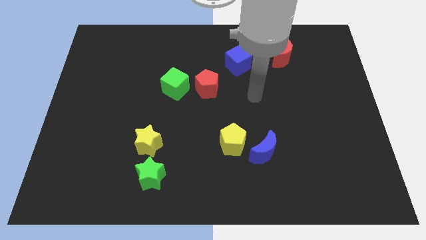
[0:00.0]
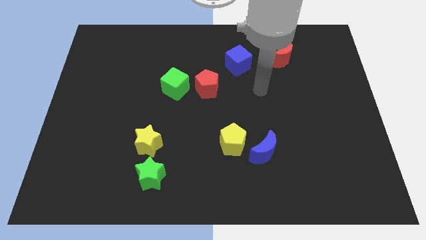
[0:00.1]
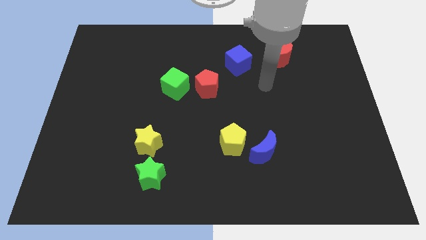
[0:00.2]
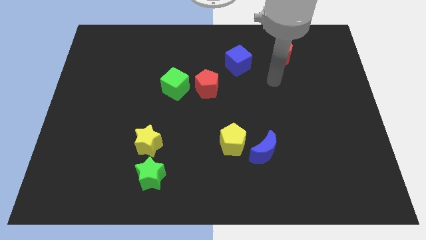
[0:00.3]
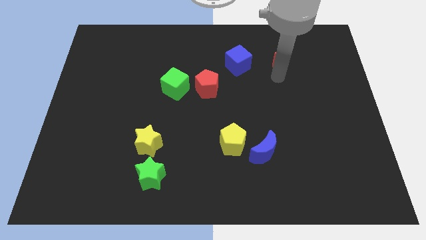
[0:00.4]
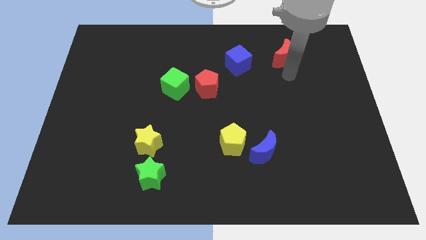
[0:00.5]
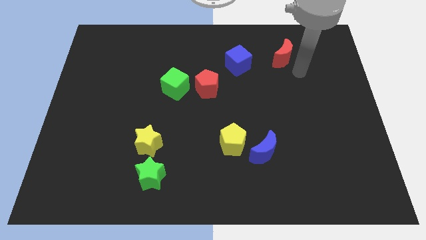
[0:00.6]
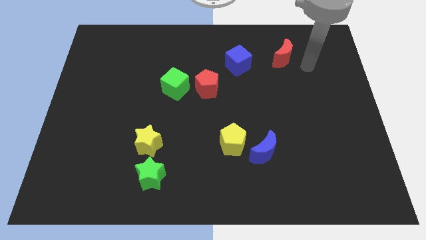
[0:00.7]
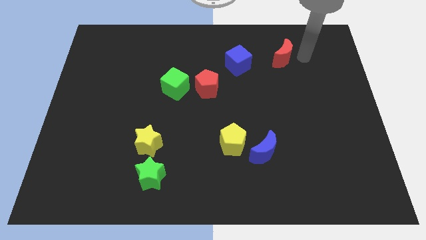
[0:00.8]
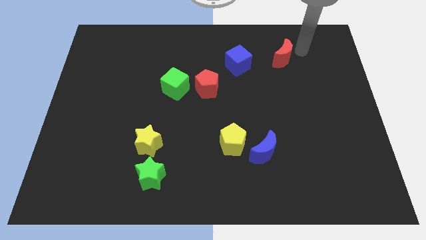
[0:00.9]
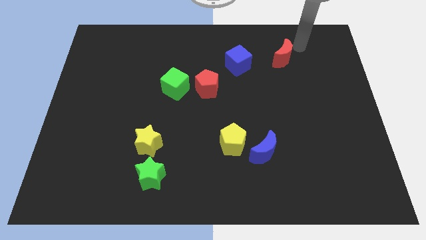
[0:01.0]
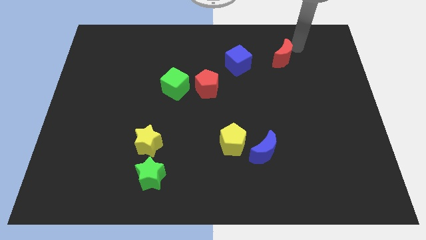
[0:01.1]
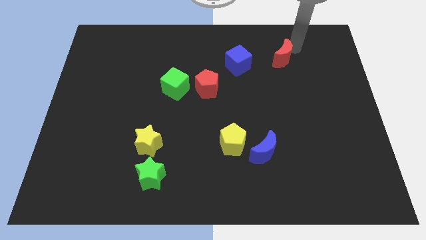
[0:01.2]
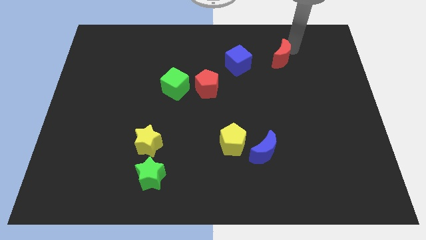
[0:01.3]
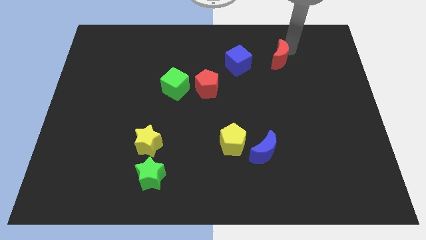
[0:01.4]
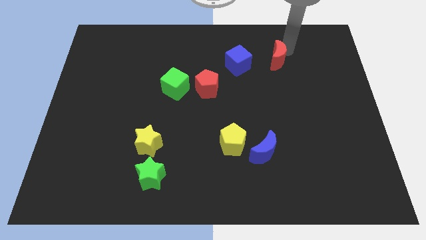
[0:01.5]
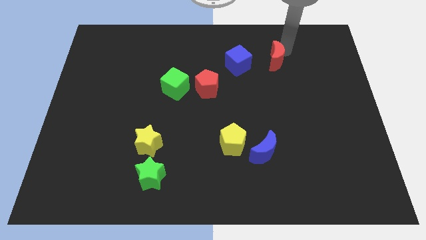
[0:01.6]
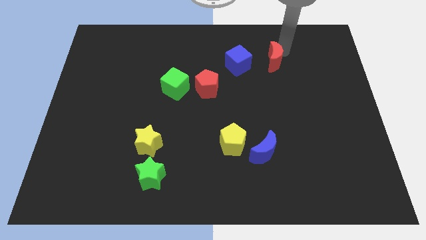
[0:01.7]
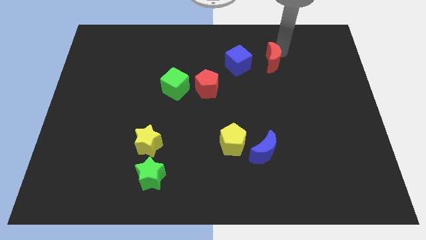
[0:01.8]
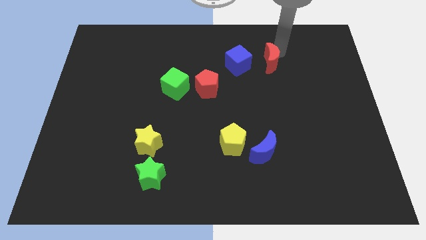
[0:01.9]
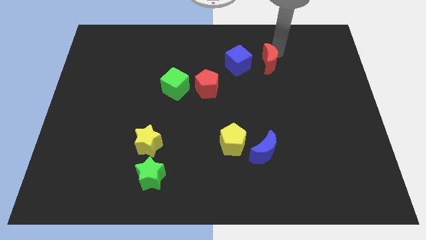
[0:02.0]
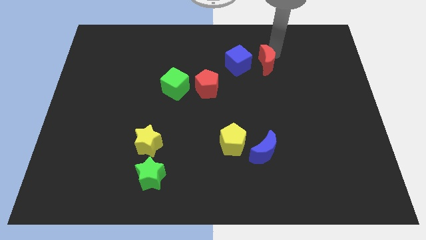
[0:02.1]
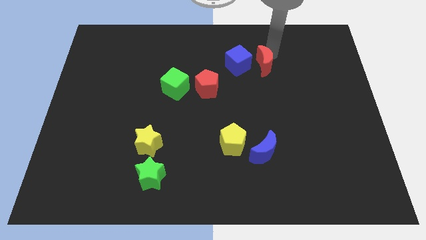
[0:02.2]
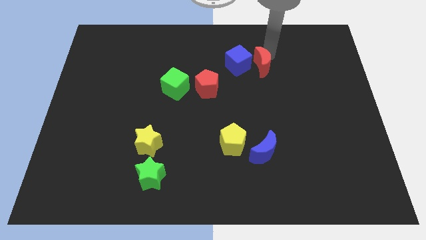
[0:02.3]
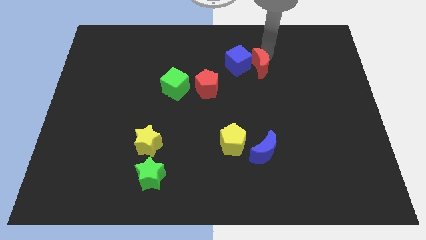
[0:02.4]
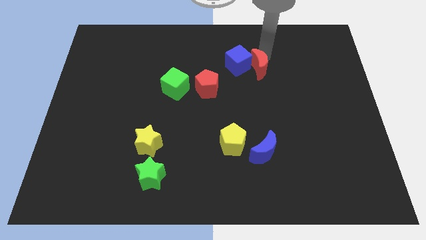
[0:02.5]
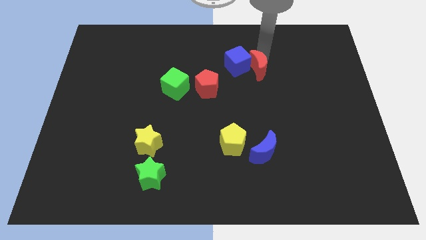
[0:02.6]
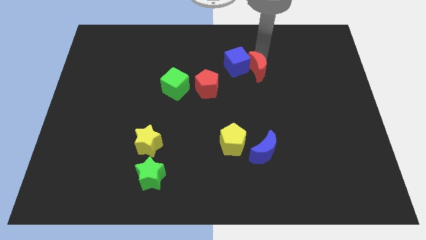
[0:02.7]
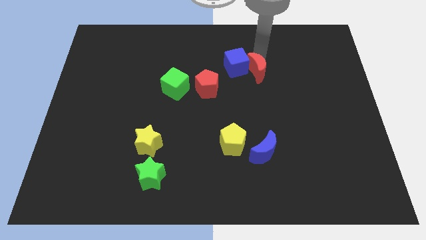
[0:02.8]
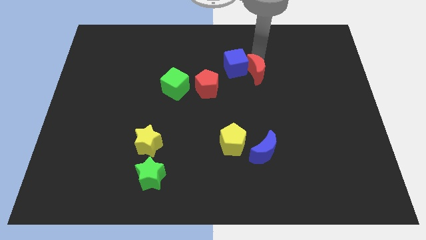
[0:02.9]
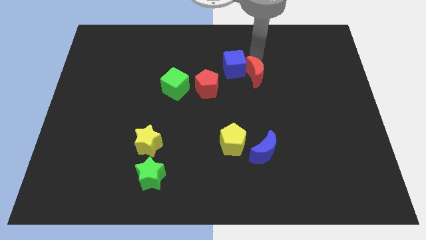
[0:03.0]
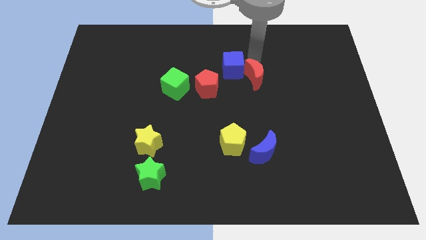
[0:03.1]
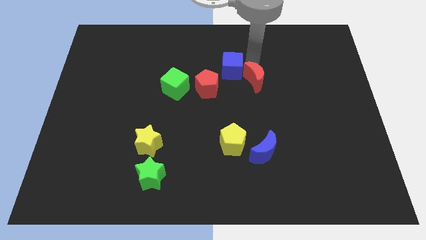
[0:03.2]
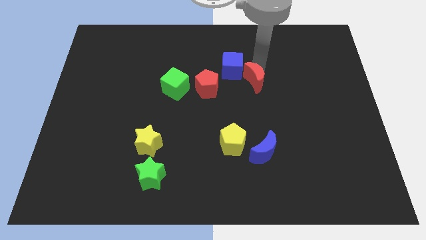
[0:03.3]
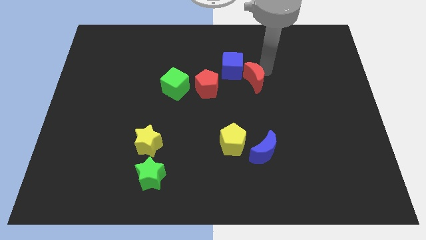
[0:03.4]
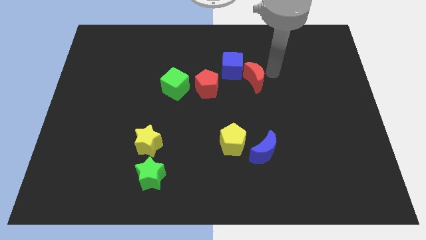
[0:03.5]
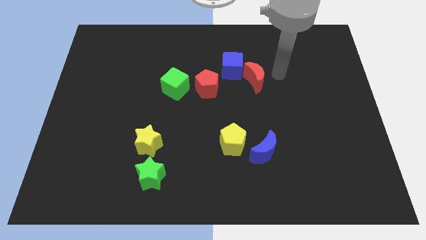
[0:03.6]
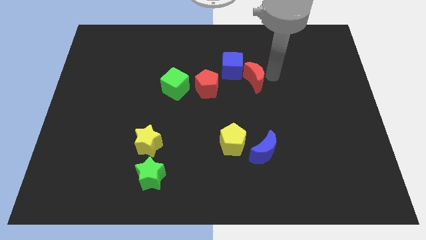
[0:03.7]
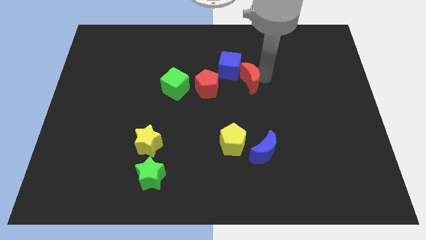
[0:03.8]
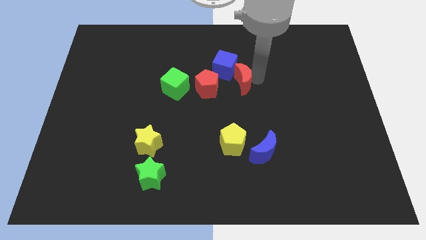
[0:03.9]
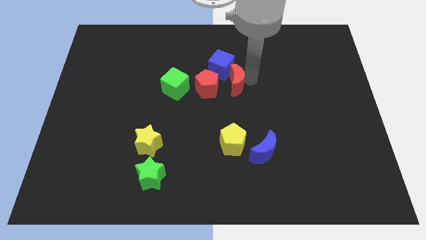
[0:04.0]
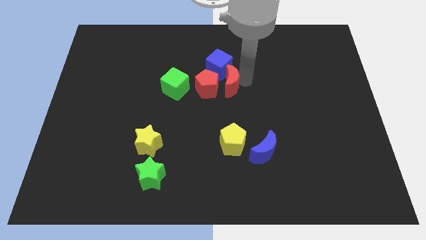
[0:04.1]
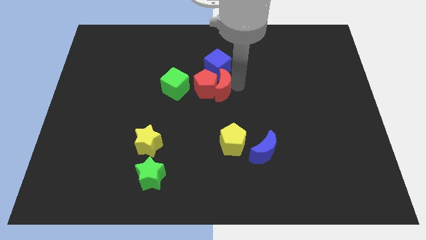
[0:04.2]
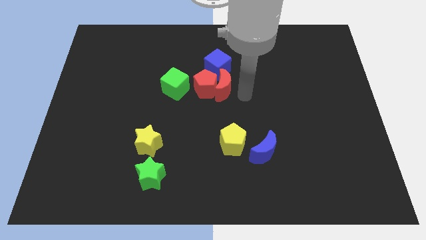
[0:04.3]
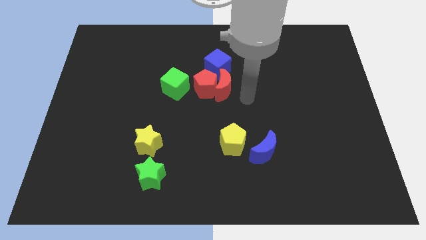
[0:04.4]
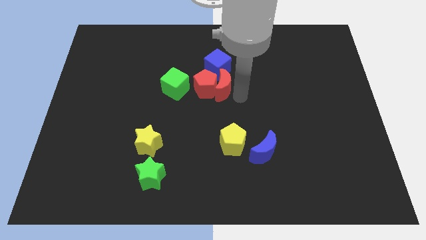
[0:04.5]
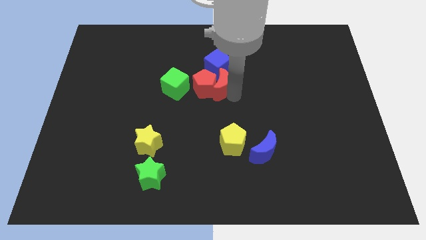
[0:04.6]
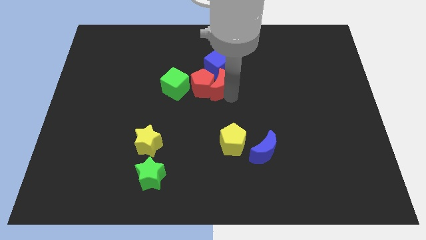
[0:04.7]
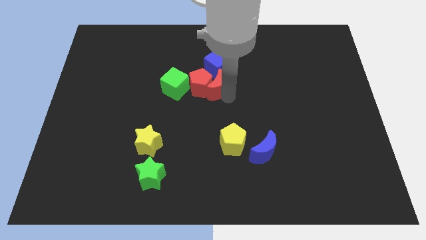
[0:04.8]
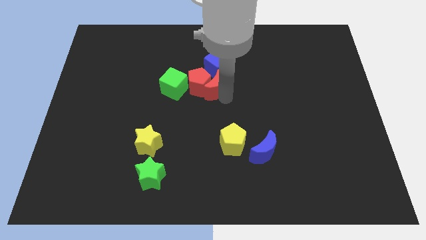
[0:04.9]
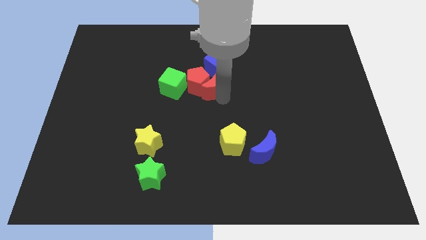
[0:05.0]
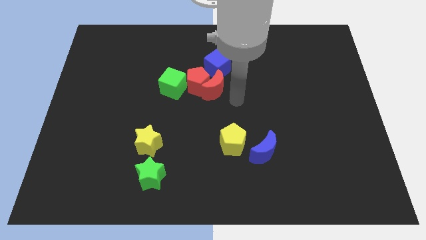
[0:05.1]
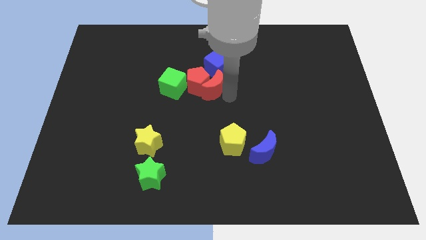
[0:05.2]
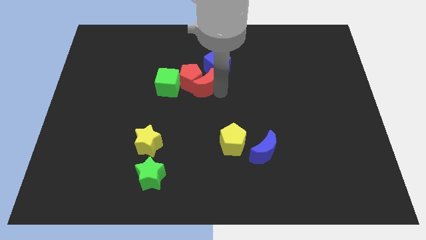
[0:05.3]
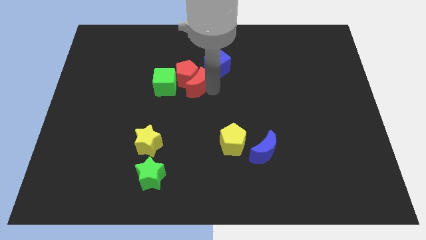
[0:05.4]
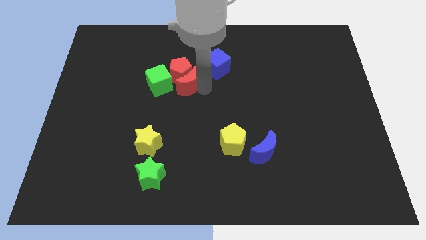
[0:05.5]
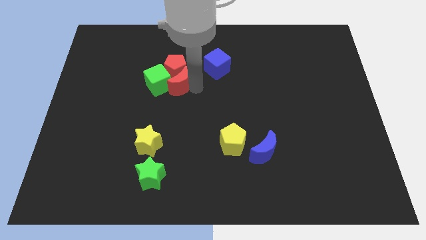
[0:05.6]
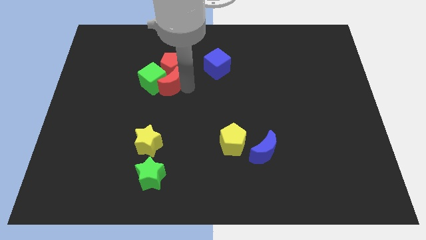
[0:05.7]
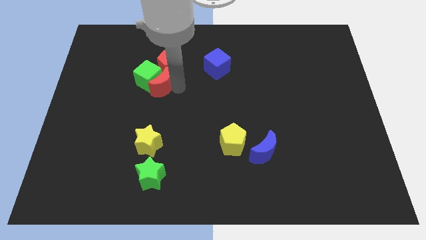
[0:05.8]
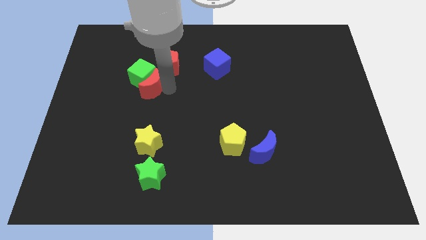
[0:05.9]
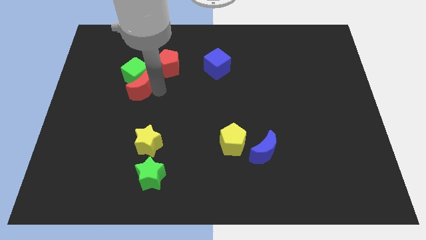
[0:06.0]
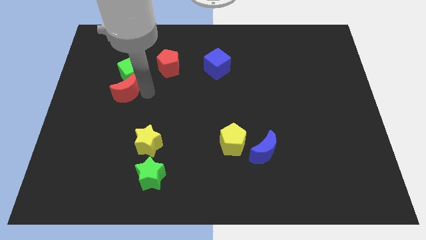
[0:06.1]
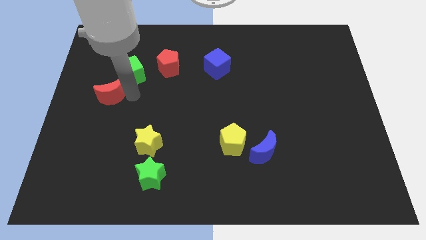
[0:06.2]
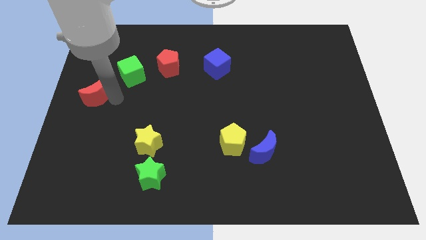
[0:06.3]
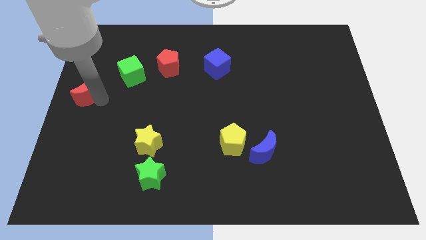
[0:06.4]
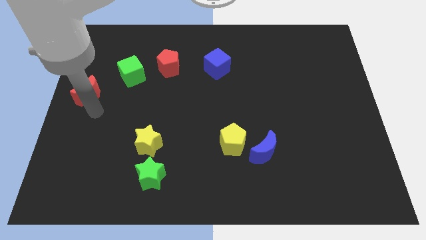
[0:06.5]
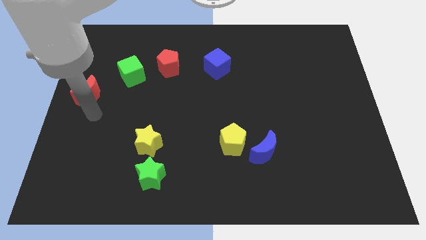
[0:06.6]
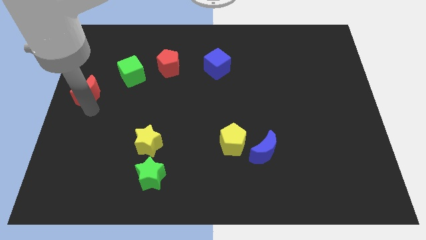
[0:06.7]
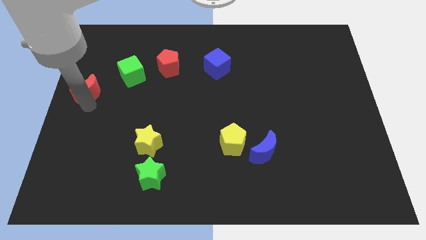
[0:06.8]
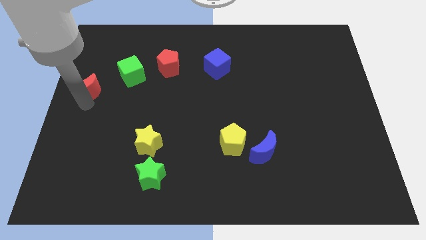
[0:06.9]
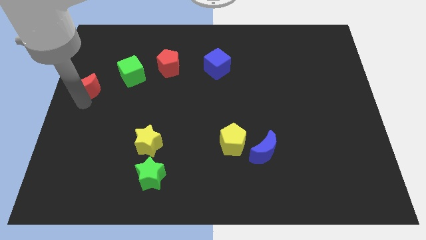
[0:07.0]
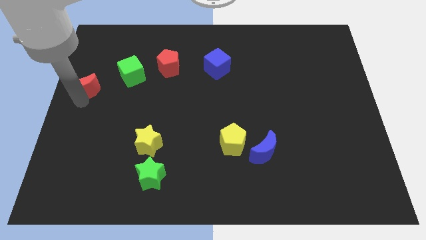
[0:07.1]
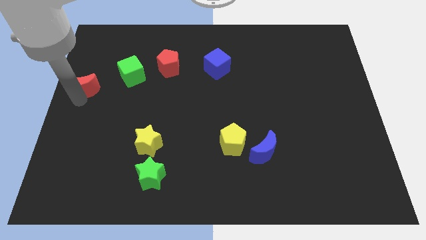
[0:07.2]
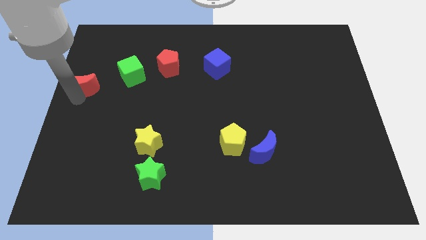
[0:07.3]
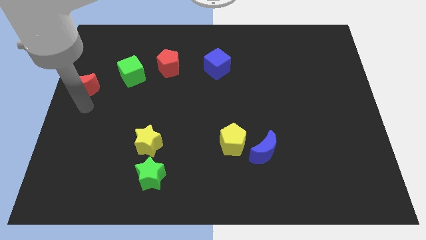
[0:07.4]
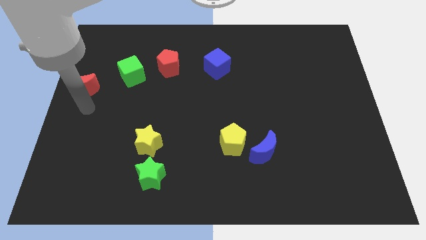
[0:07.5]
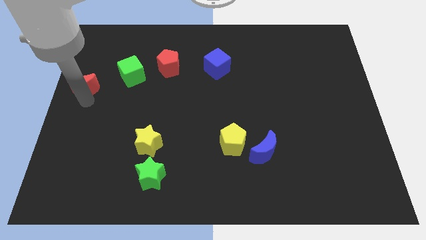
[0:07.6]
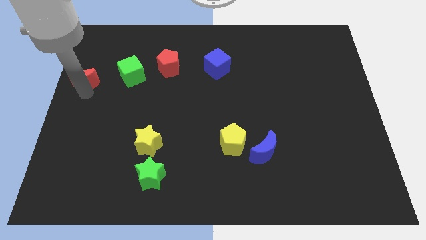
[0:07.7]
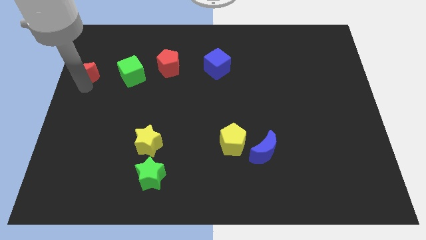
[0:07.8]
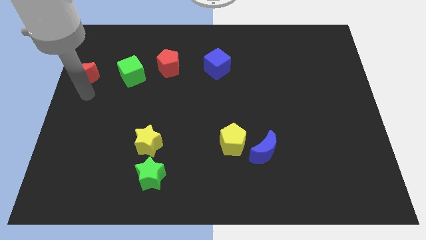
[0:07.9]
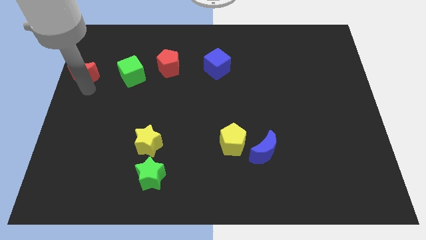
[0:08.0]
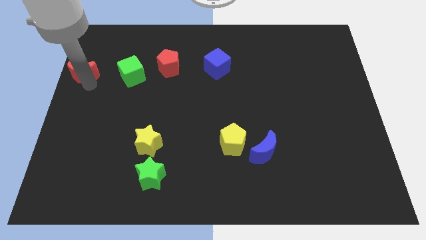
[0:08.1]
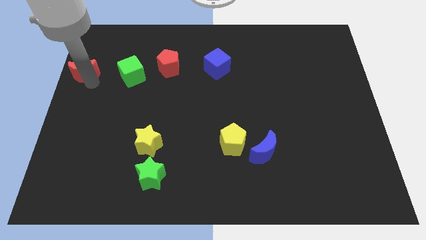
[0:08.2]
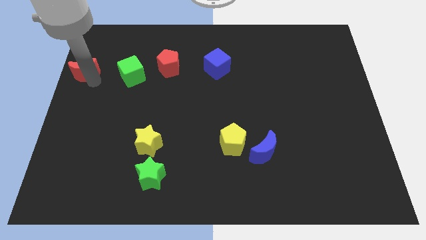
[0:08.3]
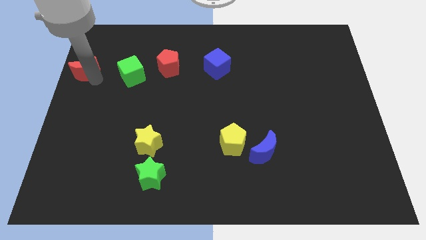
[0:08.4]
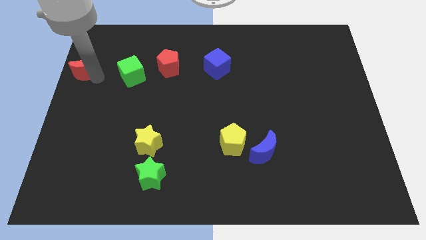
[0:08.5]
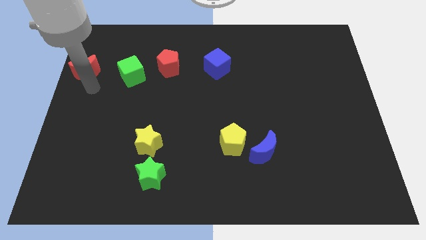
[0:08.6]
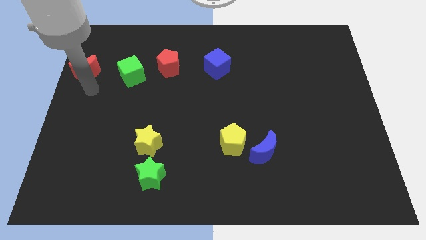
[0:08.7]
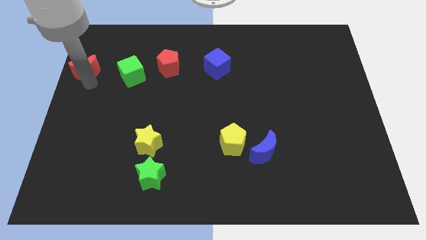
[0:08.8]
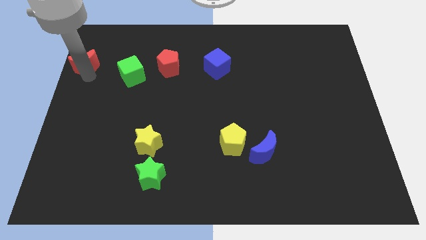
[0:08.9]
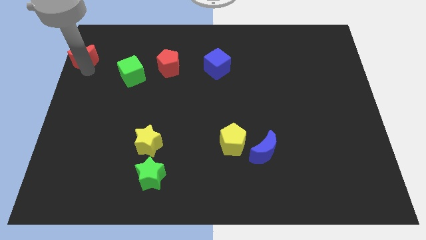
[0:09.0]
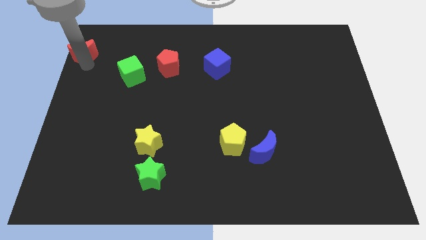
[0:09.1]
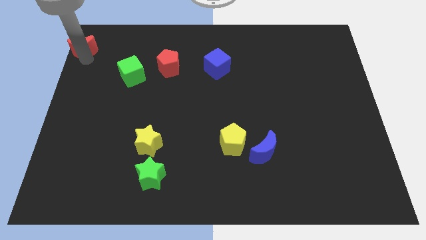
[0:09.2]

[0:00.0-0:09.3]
push the red moon to the upper left corner
